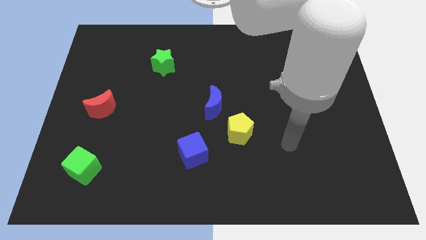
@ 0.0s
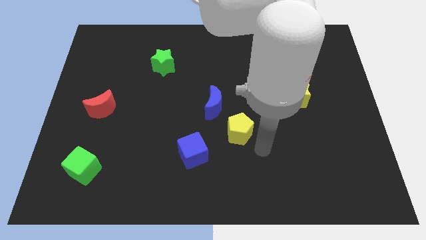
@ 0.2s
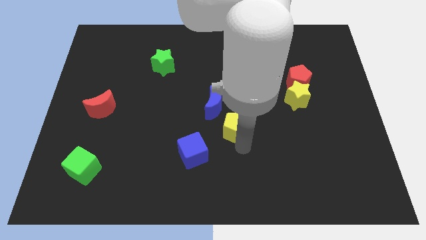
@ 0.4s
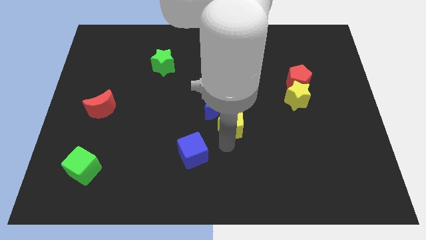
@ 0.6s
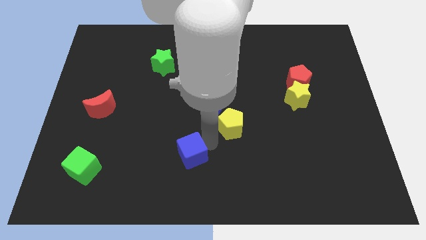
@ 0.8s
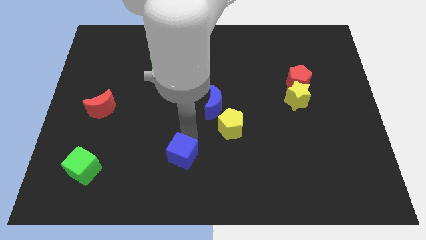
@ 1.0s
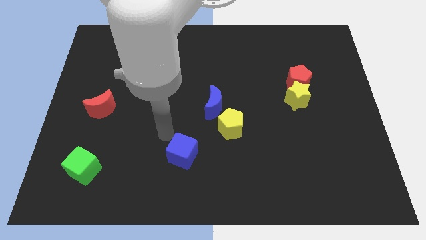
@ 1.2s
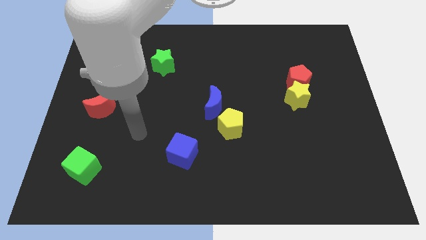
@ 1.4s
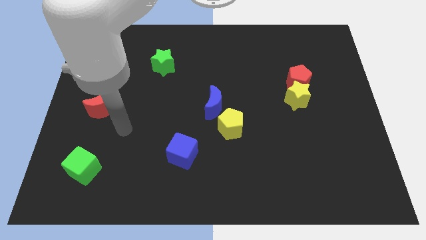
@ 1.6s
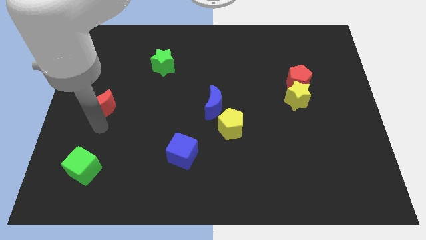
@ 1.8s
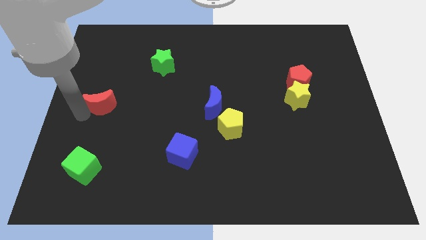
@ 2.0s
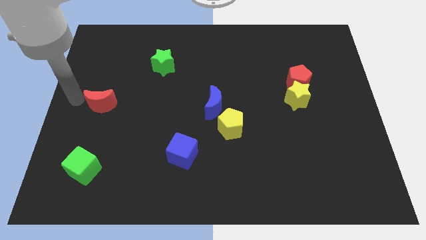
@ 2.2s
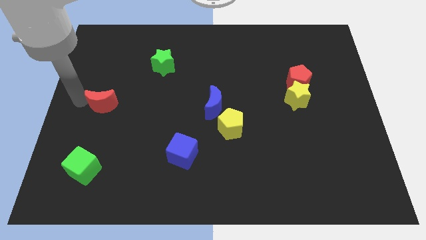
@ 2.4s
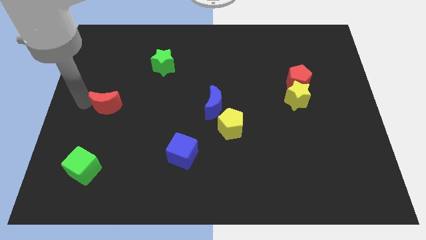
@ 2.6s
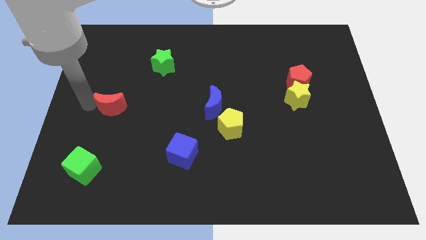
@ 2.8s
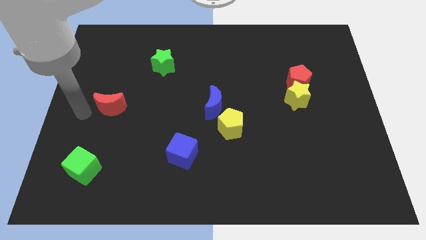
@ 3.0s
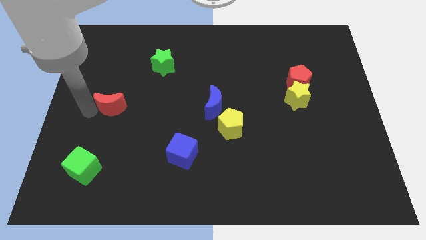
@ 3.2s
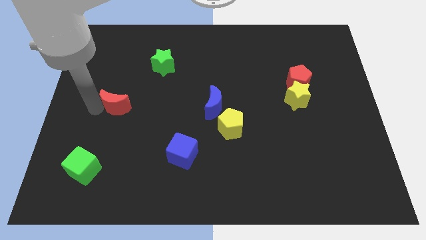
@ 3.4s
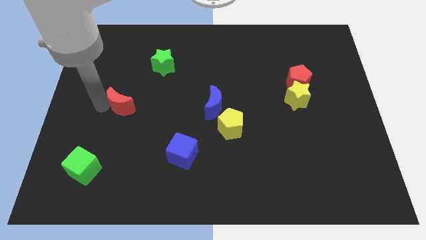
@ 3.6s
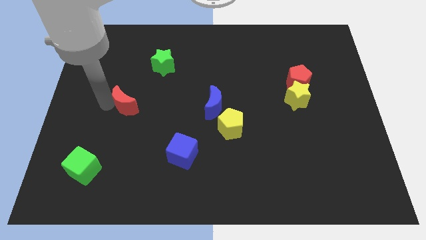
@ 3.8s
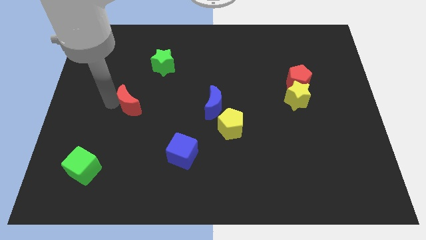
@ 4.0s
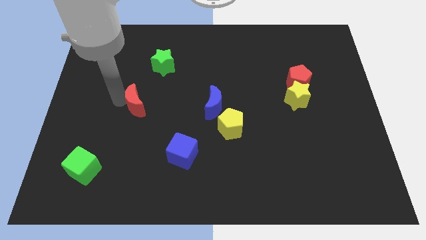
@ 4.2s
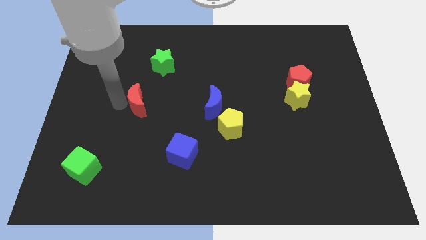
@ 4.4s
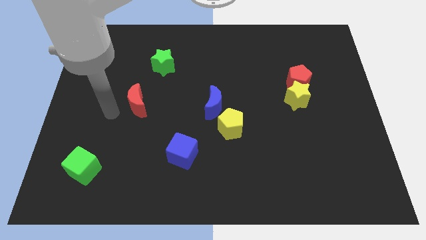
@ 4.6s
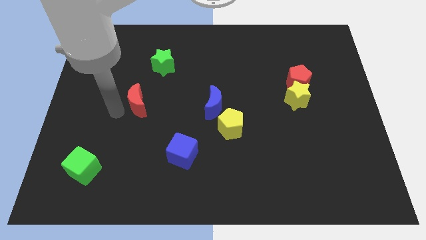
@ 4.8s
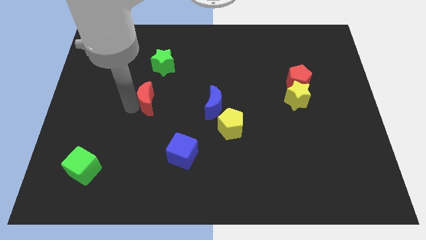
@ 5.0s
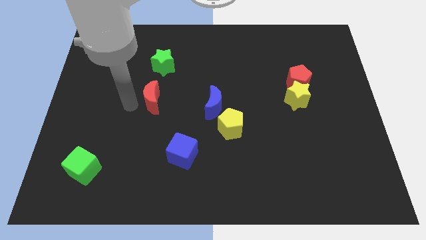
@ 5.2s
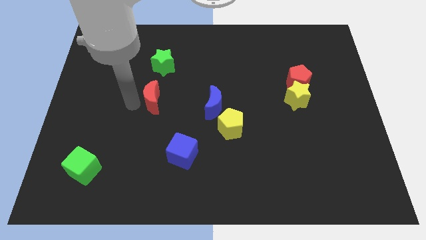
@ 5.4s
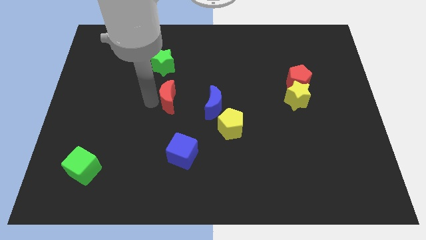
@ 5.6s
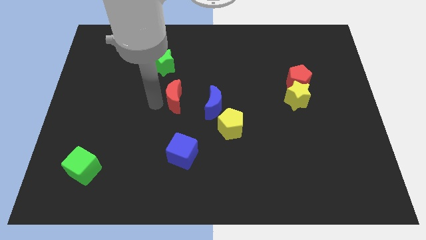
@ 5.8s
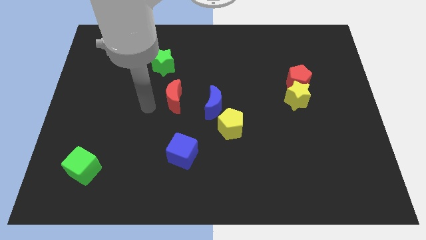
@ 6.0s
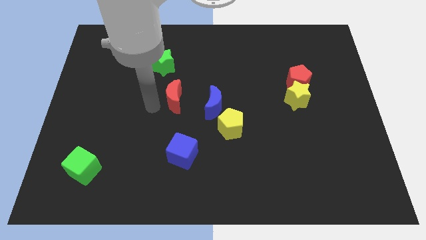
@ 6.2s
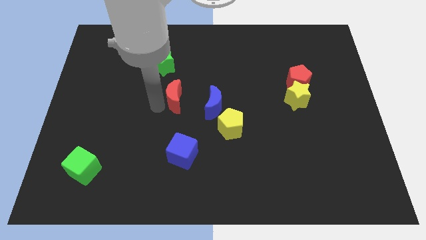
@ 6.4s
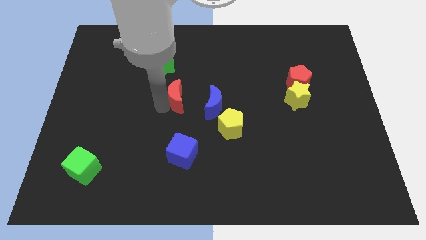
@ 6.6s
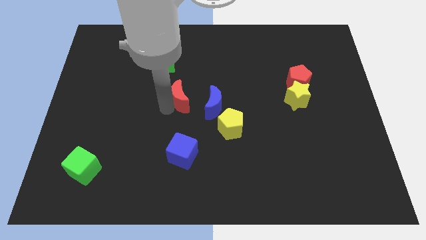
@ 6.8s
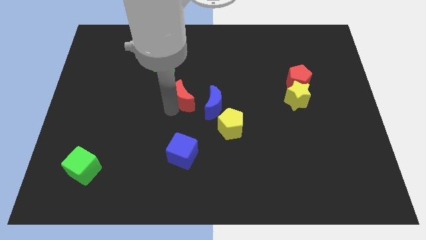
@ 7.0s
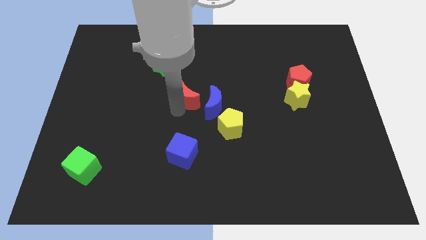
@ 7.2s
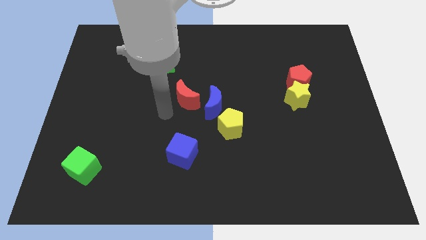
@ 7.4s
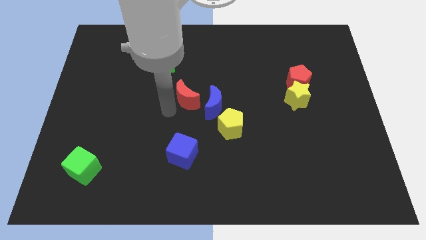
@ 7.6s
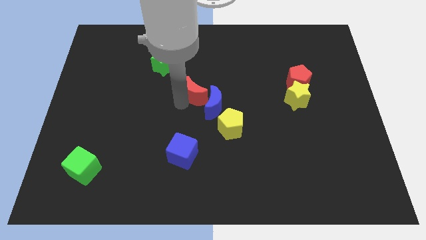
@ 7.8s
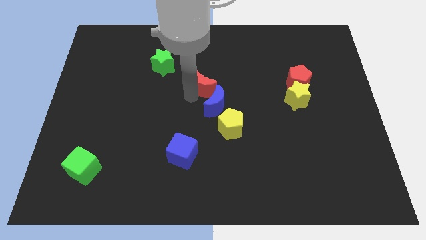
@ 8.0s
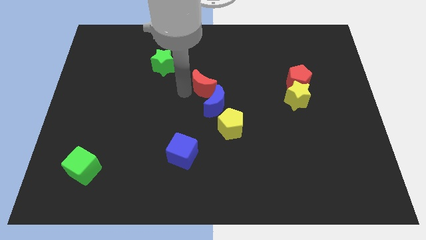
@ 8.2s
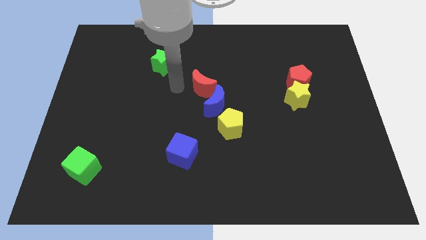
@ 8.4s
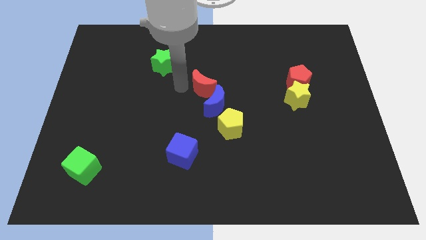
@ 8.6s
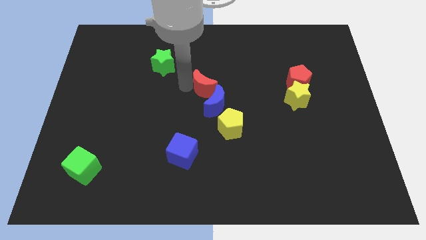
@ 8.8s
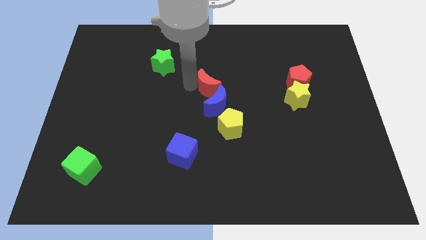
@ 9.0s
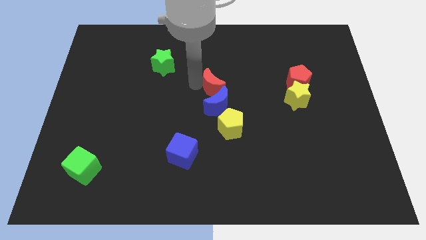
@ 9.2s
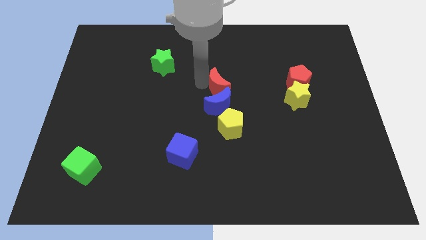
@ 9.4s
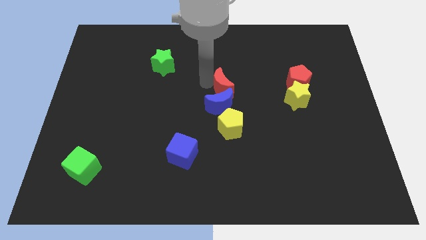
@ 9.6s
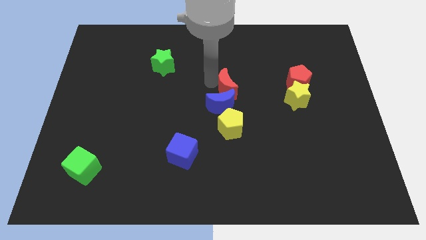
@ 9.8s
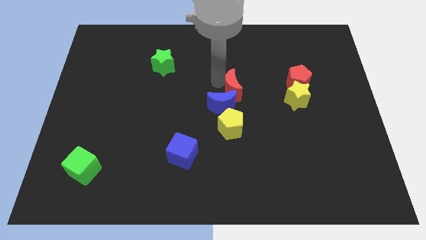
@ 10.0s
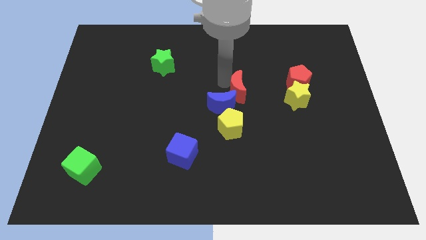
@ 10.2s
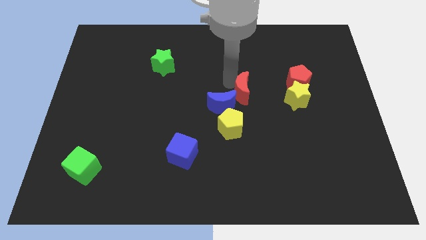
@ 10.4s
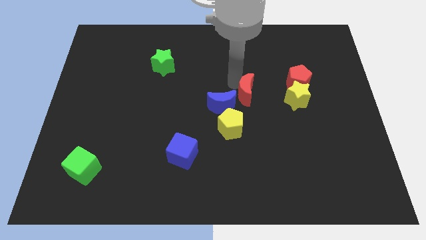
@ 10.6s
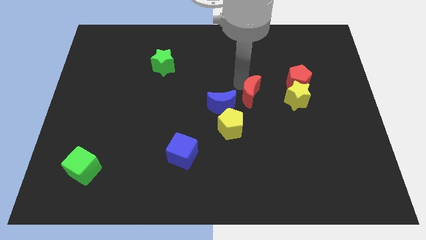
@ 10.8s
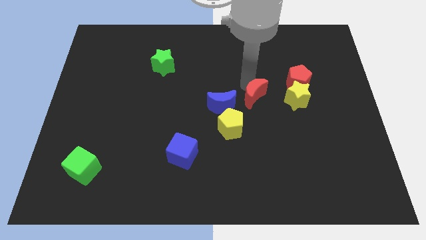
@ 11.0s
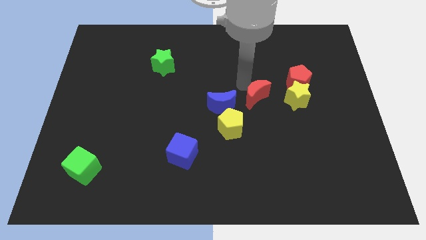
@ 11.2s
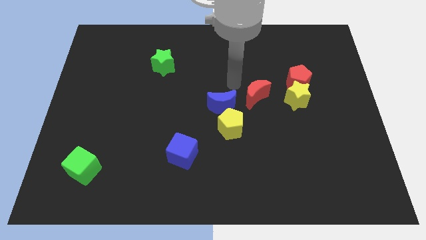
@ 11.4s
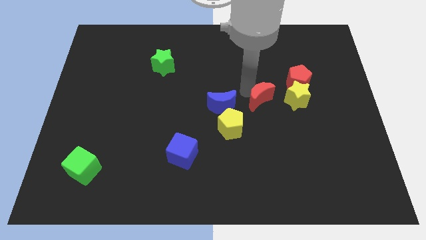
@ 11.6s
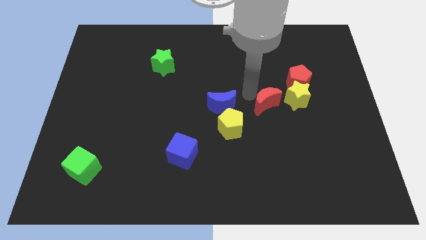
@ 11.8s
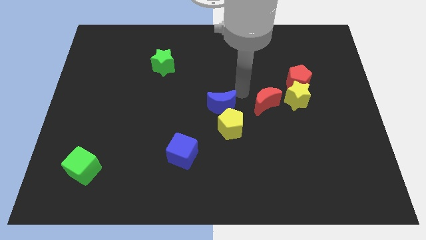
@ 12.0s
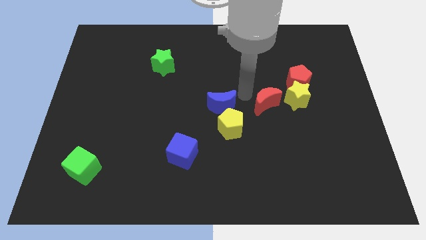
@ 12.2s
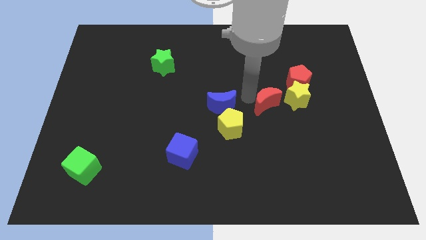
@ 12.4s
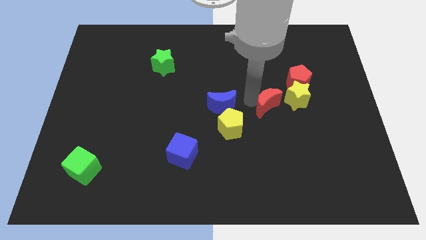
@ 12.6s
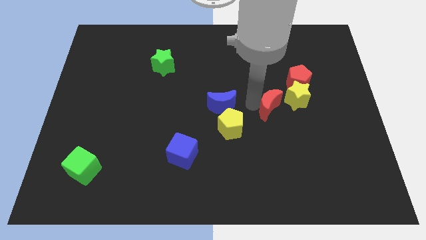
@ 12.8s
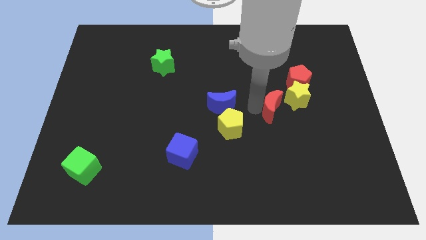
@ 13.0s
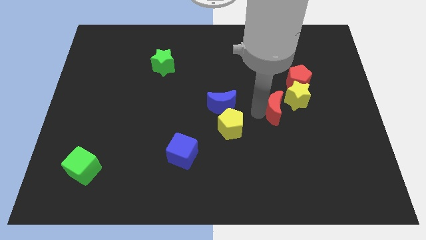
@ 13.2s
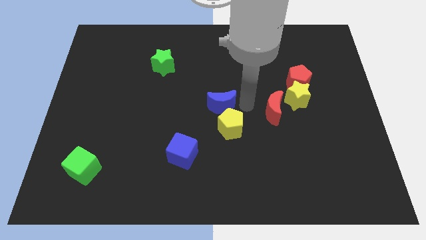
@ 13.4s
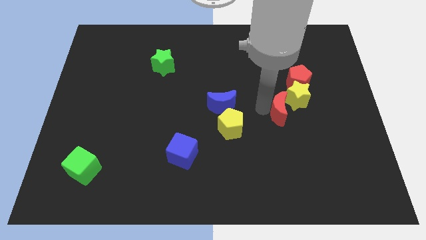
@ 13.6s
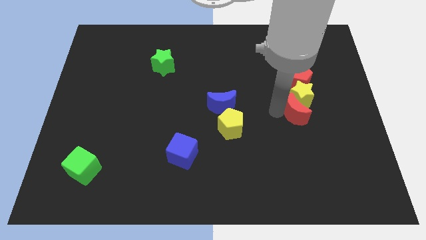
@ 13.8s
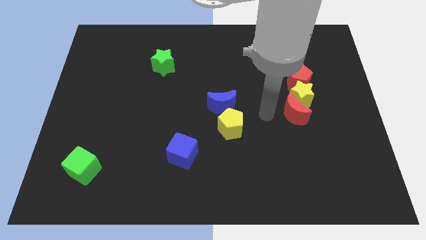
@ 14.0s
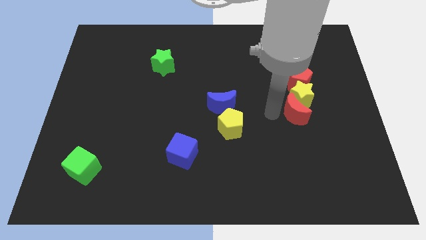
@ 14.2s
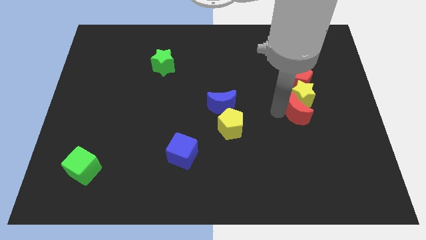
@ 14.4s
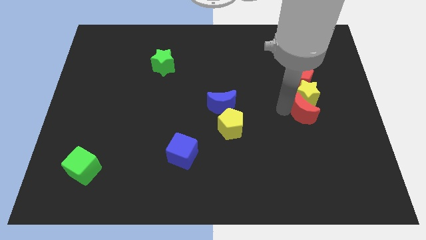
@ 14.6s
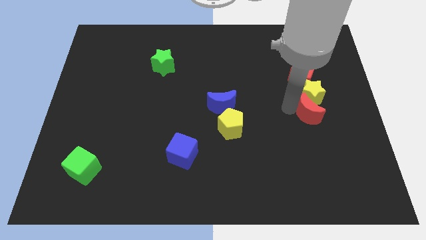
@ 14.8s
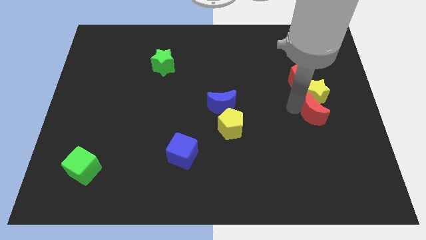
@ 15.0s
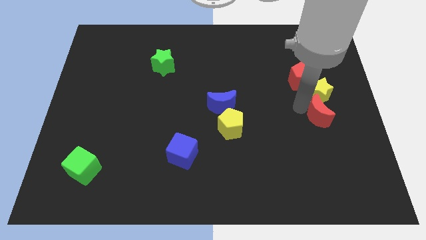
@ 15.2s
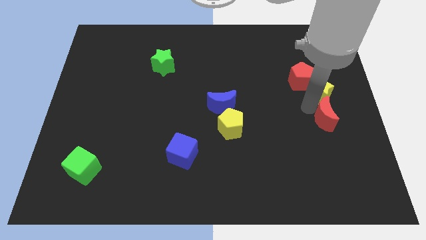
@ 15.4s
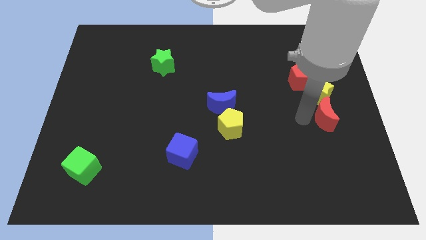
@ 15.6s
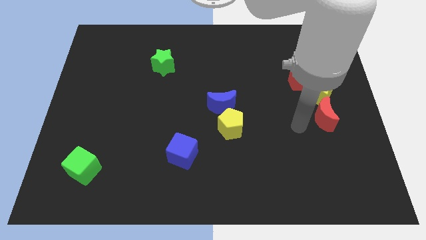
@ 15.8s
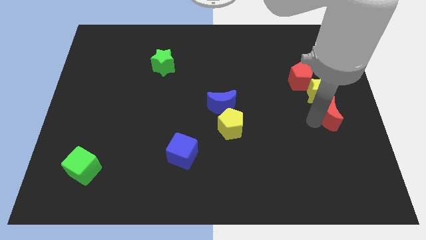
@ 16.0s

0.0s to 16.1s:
move the red moon to the right side of the board
